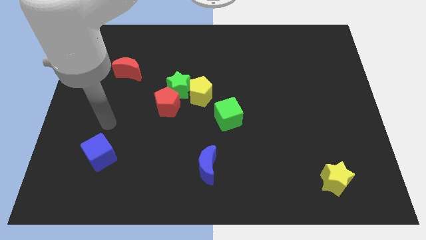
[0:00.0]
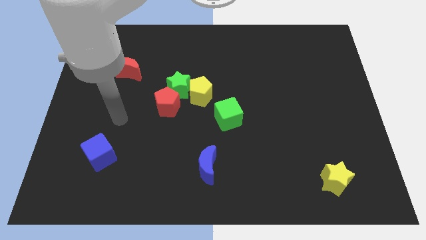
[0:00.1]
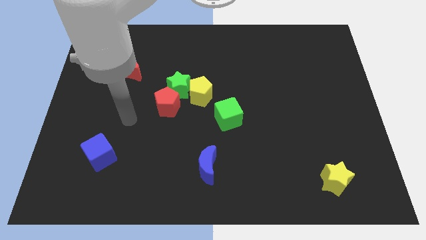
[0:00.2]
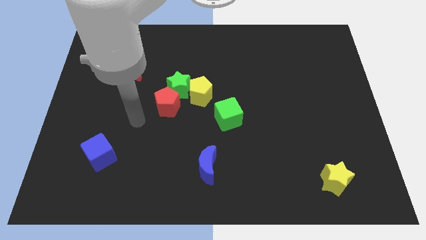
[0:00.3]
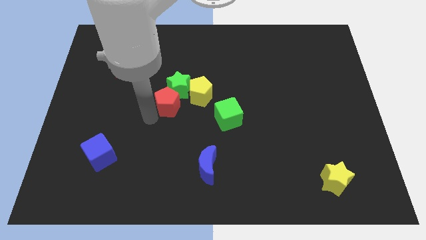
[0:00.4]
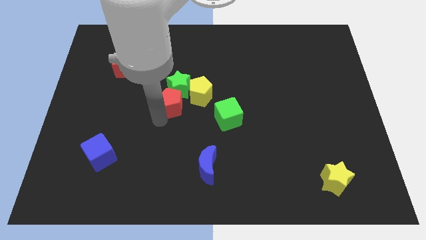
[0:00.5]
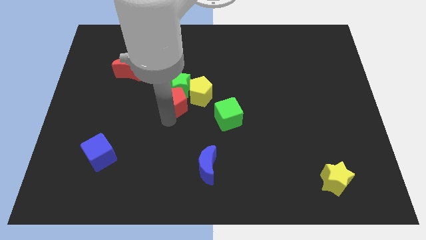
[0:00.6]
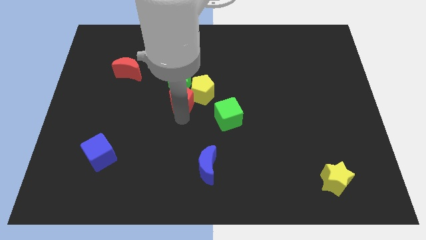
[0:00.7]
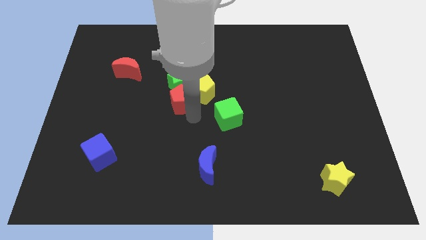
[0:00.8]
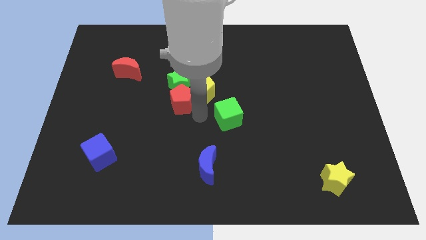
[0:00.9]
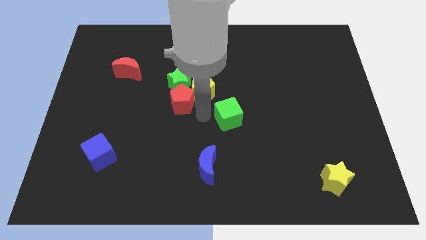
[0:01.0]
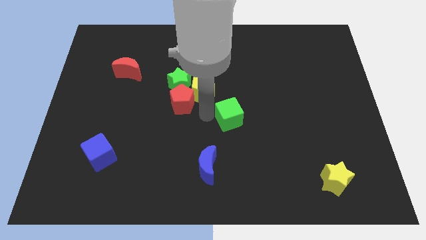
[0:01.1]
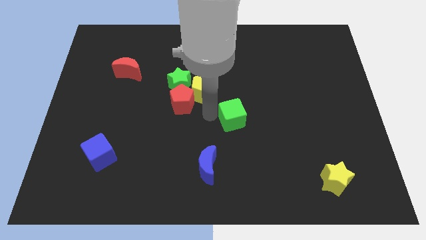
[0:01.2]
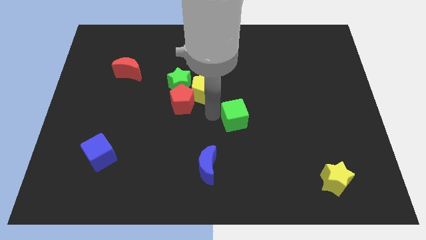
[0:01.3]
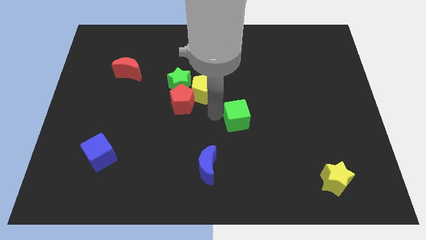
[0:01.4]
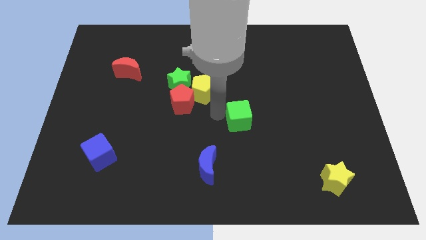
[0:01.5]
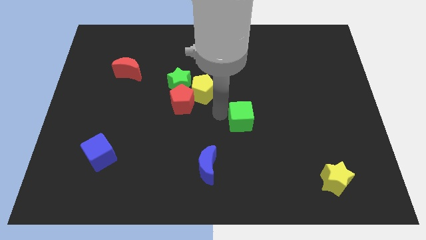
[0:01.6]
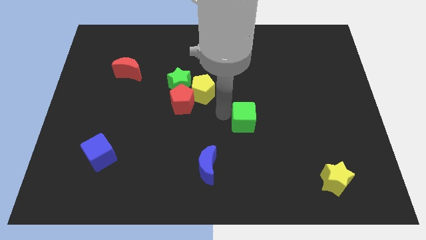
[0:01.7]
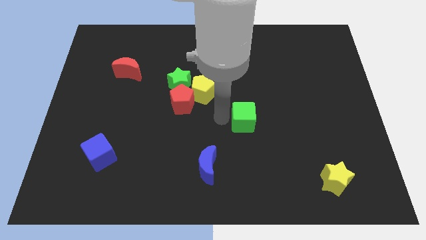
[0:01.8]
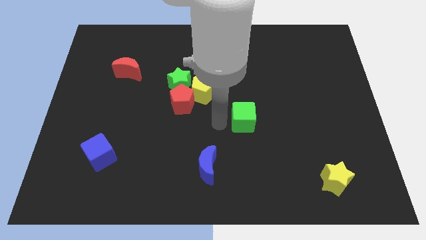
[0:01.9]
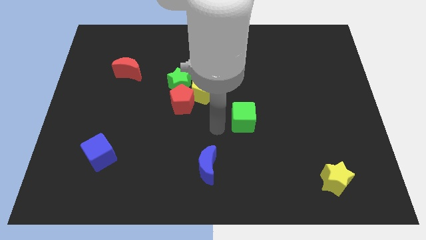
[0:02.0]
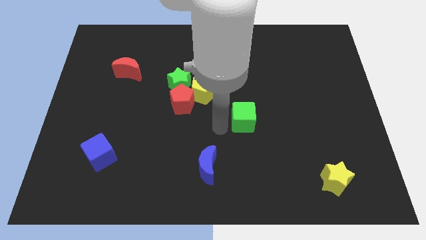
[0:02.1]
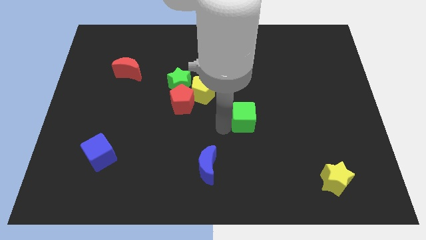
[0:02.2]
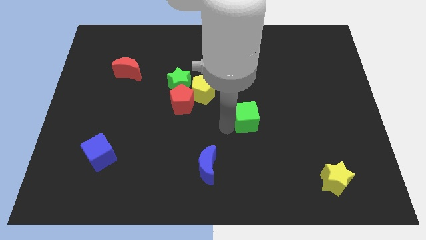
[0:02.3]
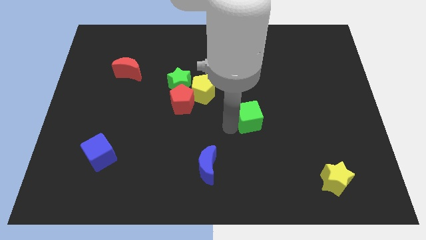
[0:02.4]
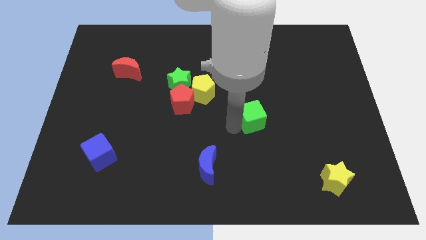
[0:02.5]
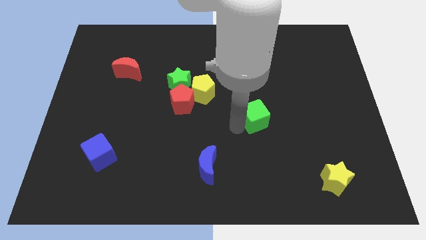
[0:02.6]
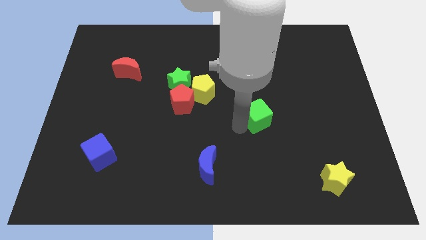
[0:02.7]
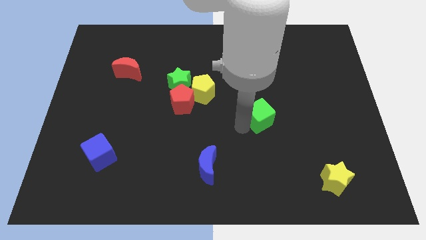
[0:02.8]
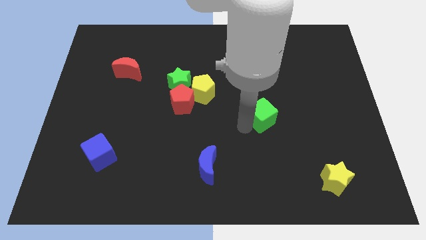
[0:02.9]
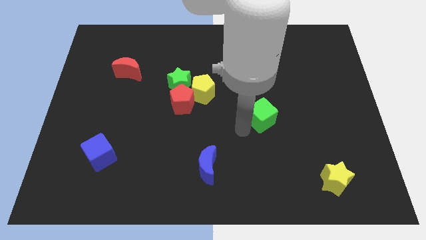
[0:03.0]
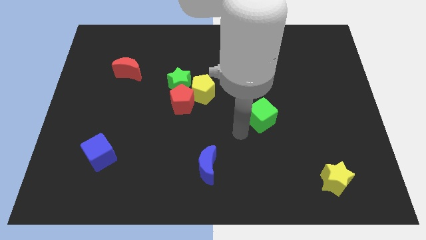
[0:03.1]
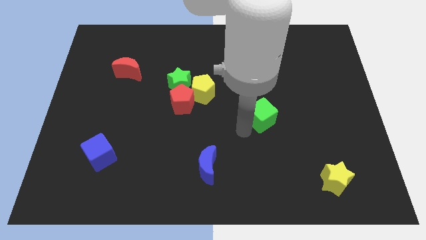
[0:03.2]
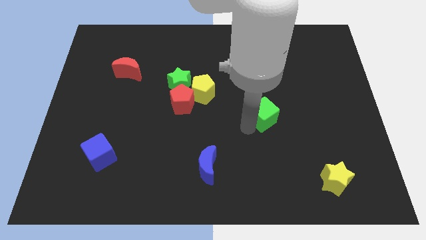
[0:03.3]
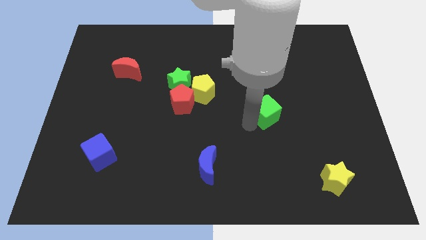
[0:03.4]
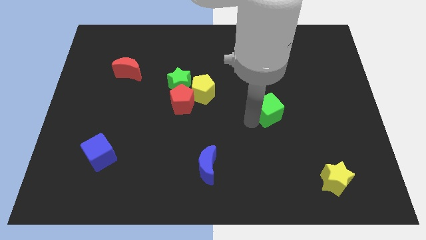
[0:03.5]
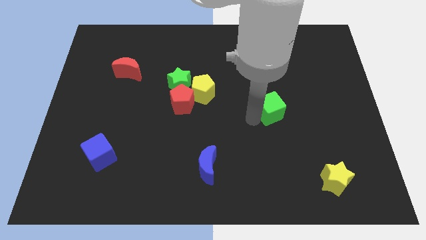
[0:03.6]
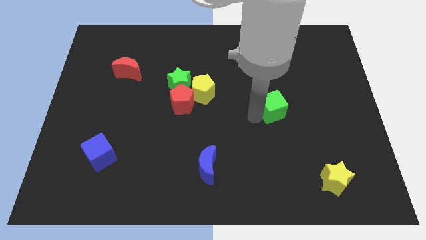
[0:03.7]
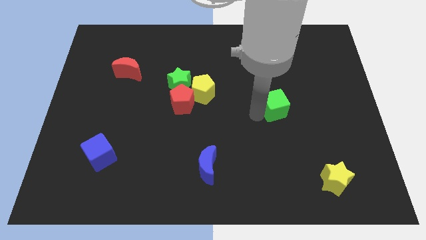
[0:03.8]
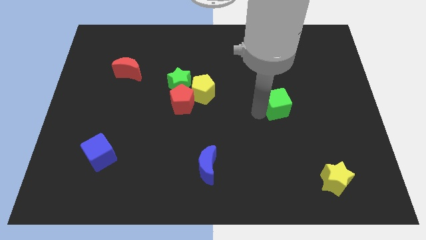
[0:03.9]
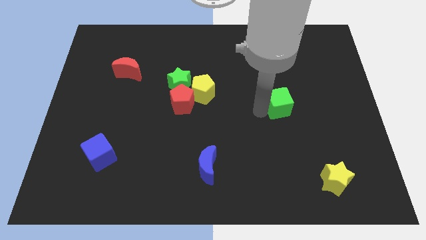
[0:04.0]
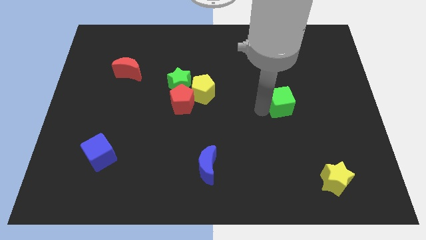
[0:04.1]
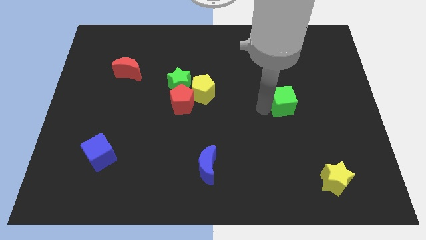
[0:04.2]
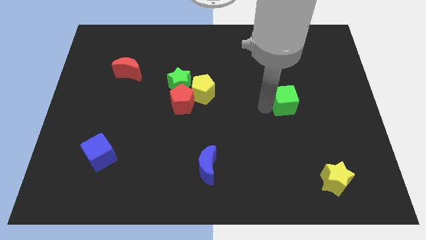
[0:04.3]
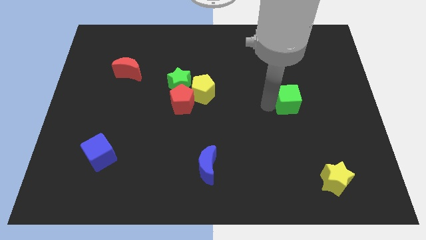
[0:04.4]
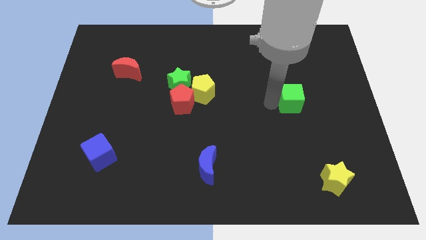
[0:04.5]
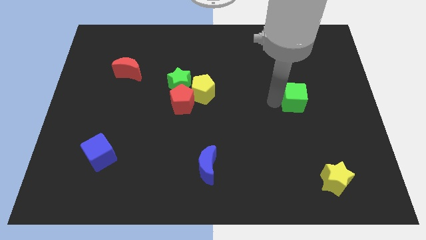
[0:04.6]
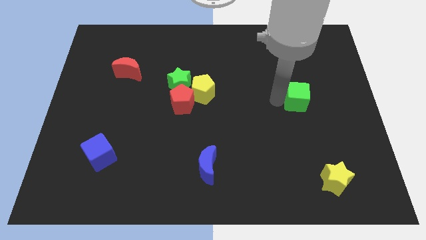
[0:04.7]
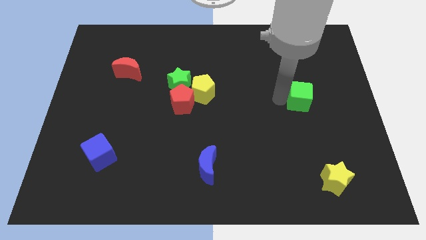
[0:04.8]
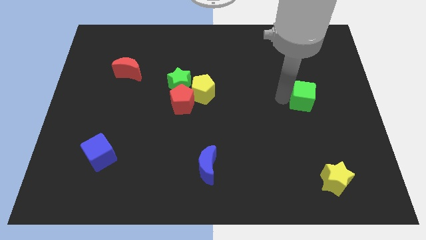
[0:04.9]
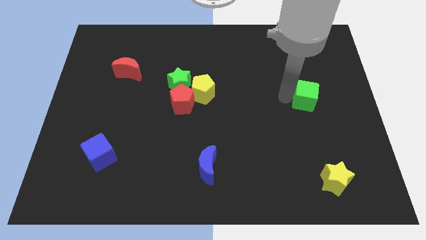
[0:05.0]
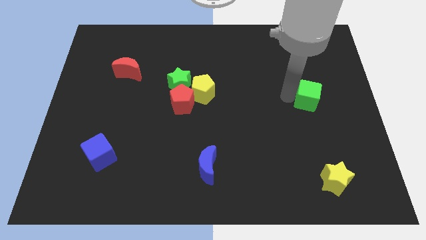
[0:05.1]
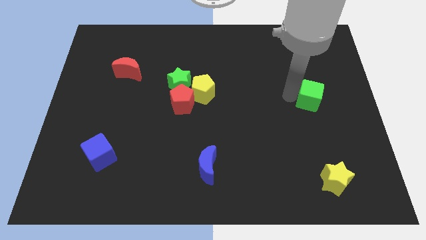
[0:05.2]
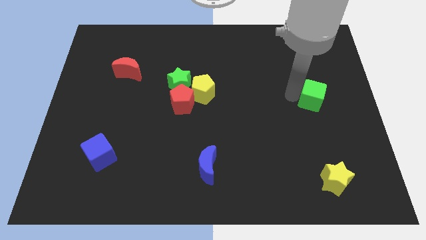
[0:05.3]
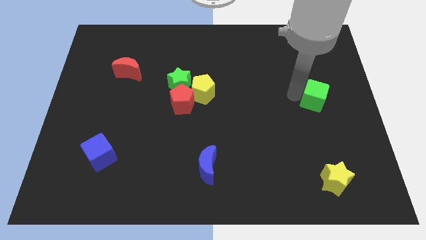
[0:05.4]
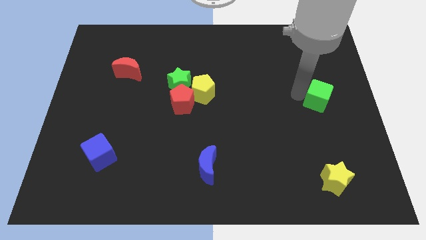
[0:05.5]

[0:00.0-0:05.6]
put the green cube to the right side of the board

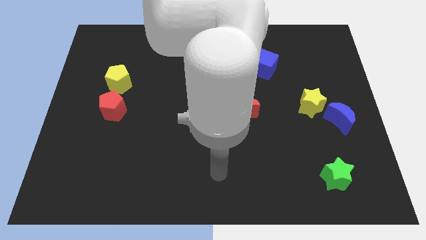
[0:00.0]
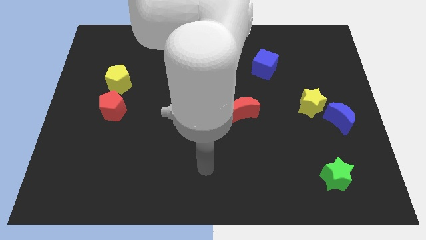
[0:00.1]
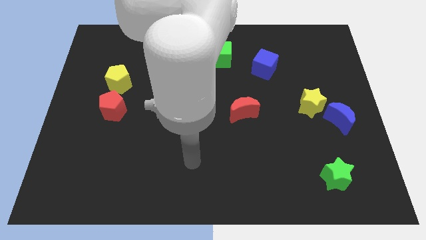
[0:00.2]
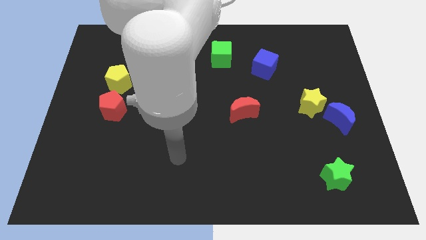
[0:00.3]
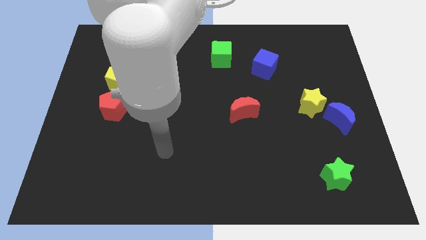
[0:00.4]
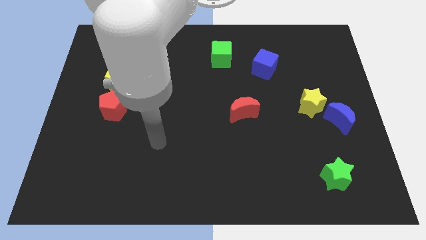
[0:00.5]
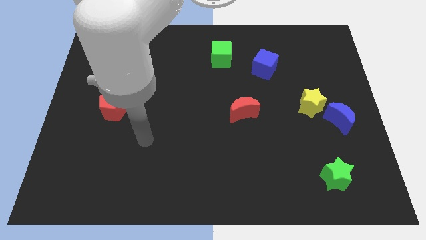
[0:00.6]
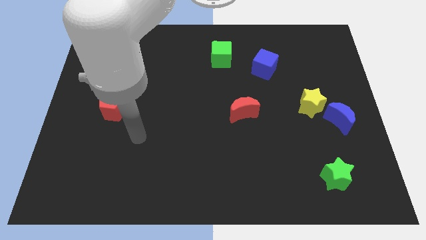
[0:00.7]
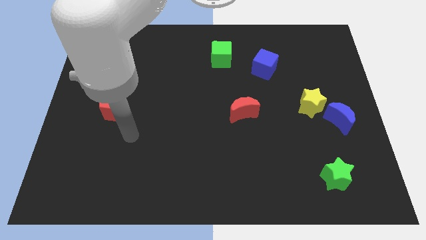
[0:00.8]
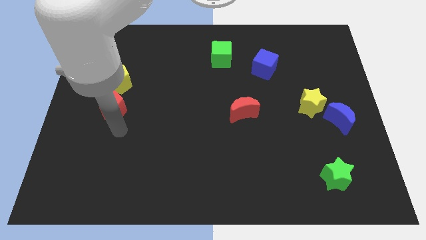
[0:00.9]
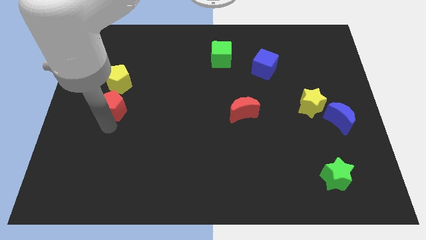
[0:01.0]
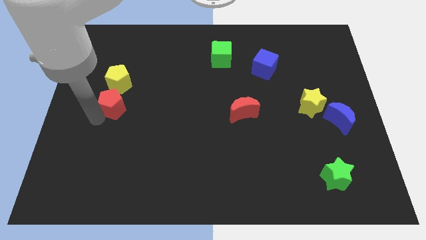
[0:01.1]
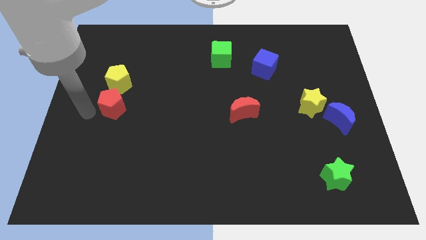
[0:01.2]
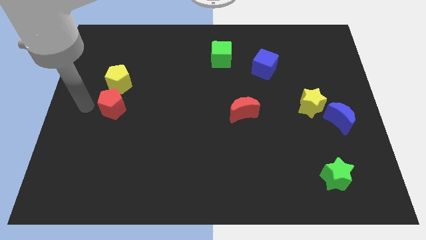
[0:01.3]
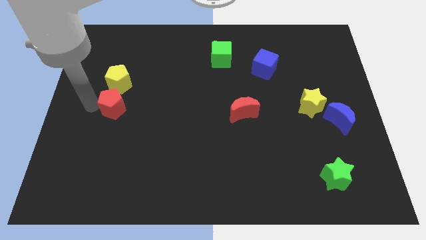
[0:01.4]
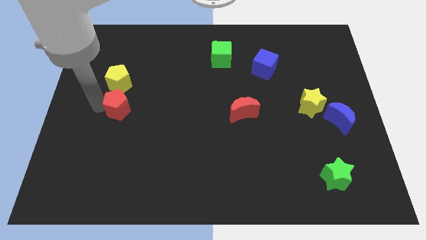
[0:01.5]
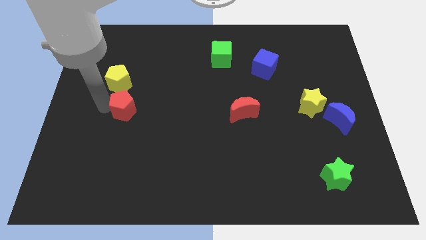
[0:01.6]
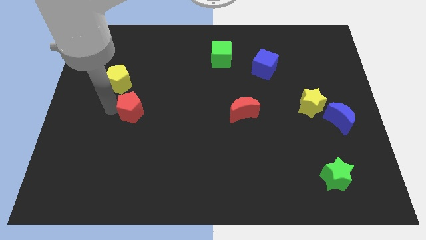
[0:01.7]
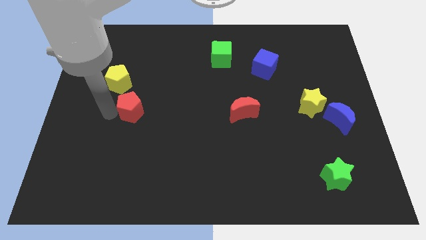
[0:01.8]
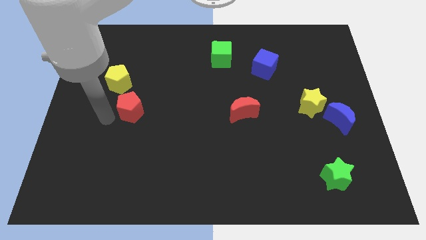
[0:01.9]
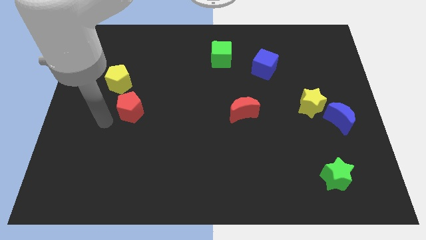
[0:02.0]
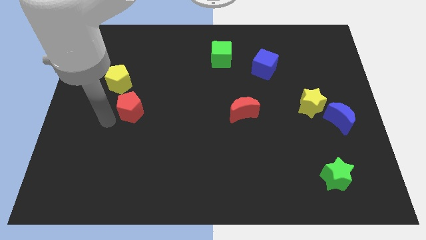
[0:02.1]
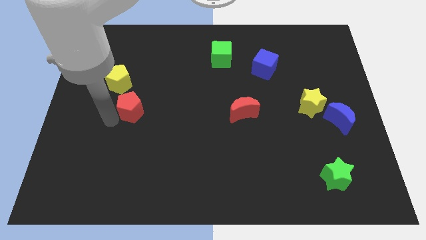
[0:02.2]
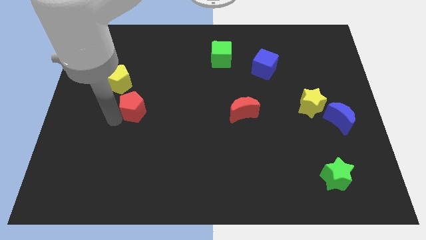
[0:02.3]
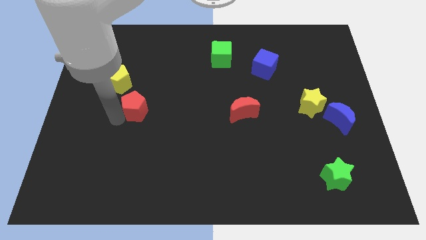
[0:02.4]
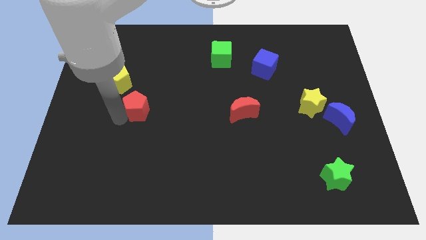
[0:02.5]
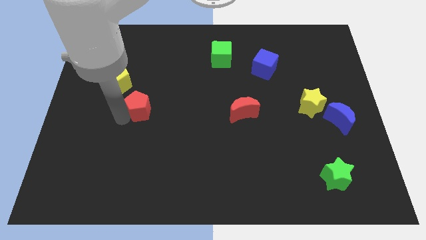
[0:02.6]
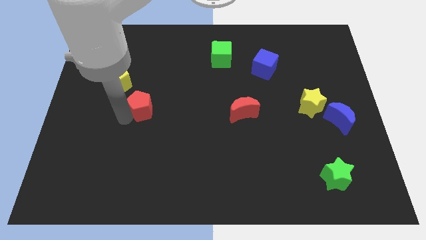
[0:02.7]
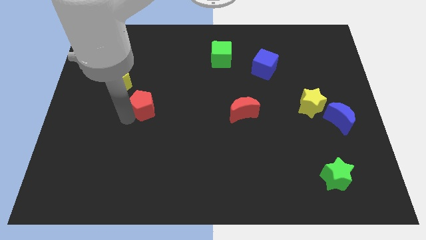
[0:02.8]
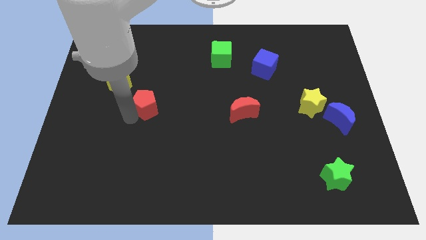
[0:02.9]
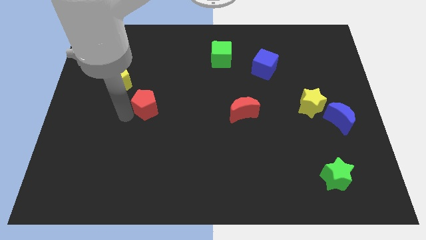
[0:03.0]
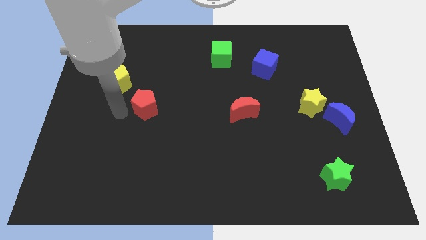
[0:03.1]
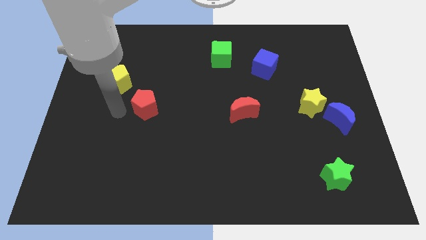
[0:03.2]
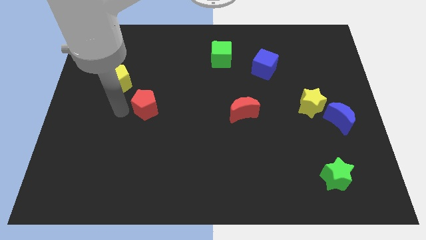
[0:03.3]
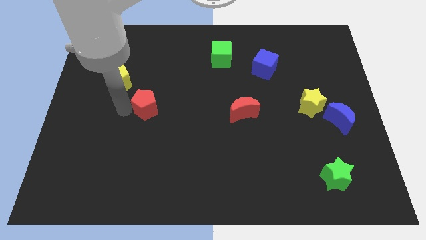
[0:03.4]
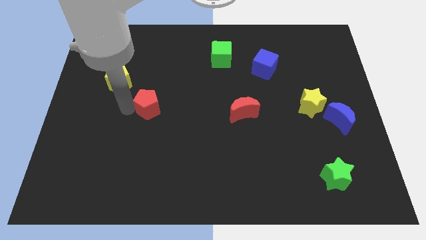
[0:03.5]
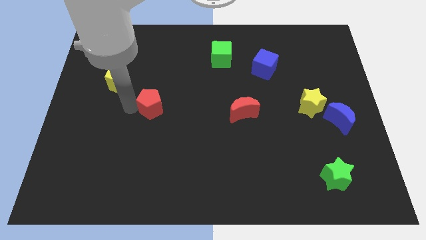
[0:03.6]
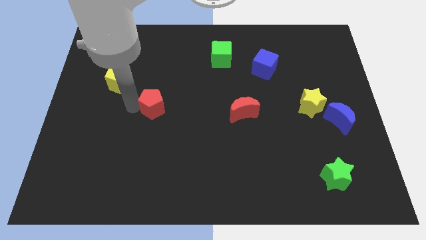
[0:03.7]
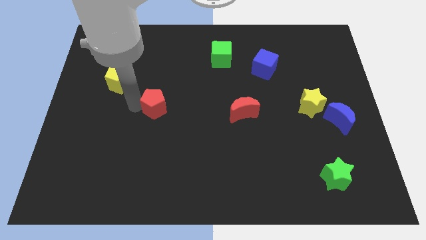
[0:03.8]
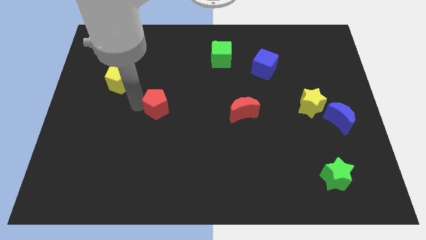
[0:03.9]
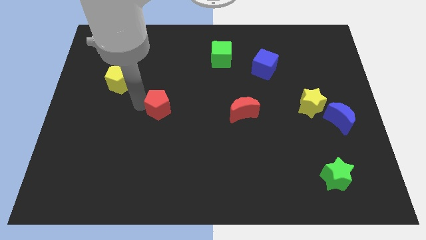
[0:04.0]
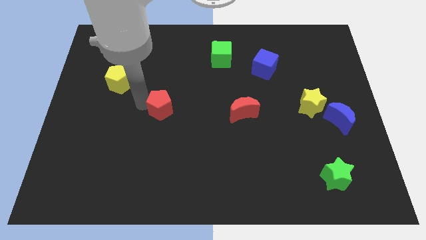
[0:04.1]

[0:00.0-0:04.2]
push the red pentagon to the middle of the board
